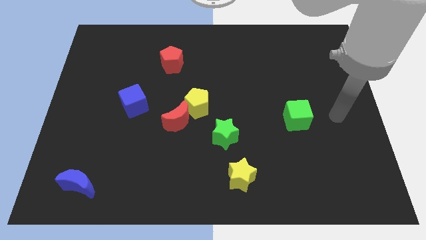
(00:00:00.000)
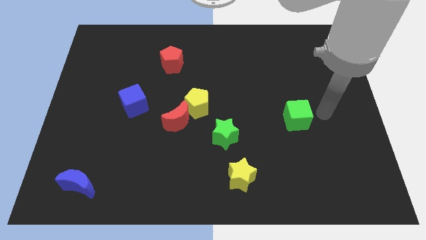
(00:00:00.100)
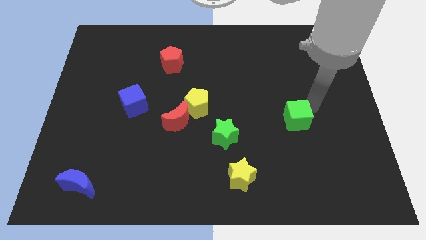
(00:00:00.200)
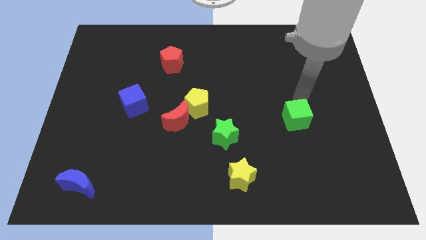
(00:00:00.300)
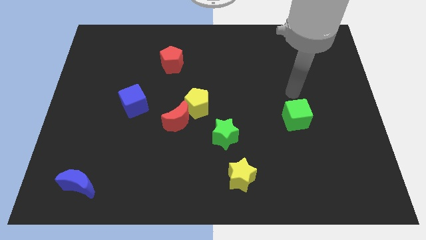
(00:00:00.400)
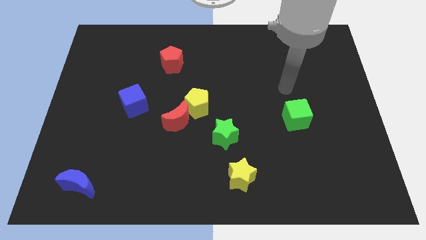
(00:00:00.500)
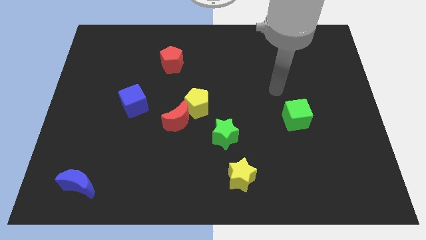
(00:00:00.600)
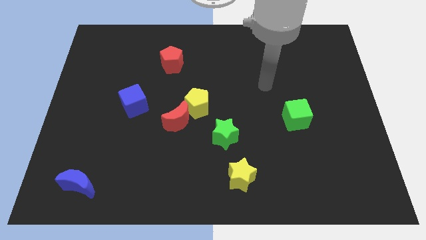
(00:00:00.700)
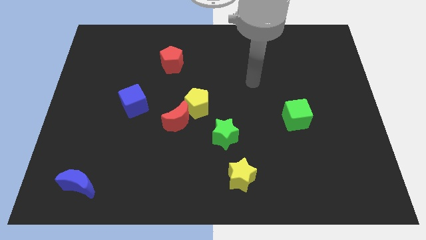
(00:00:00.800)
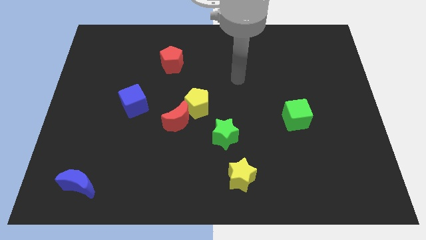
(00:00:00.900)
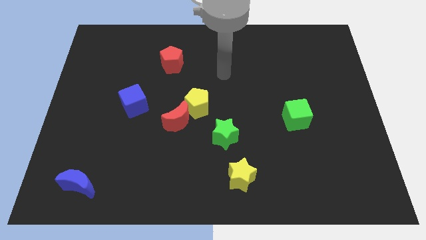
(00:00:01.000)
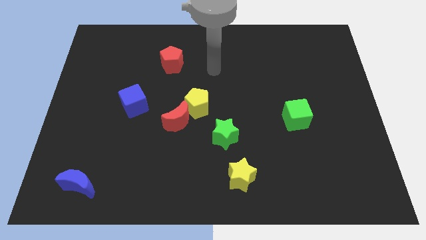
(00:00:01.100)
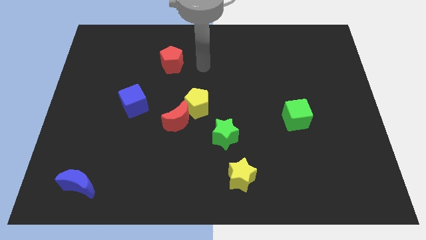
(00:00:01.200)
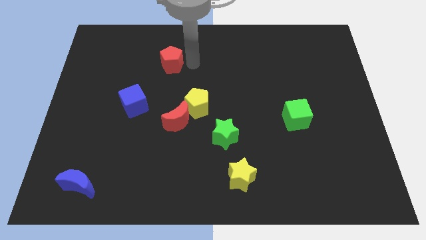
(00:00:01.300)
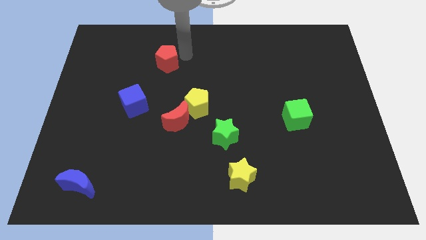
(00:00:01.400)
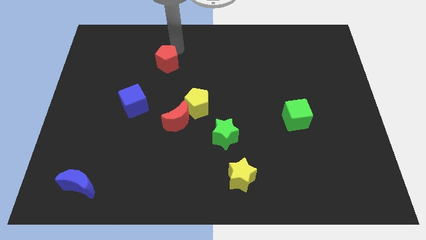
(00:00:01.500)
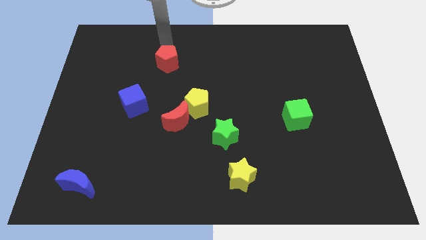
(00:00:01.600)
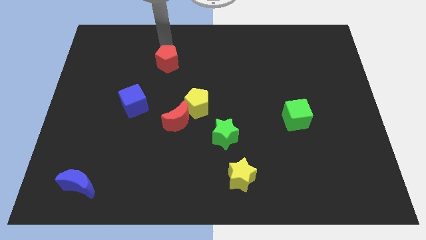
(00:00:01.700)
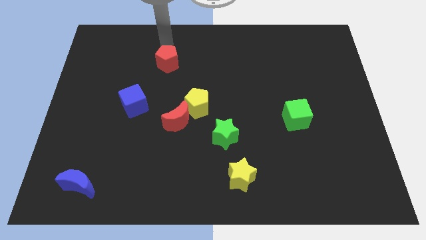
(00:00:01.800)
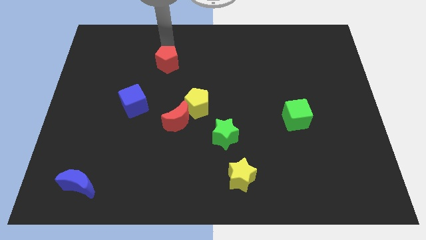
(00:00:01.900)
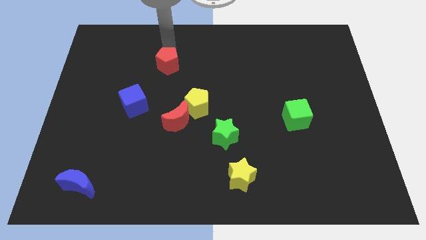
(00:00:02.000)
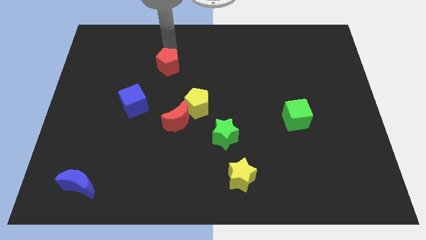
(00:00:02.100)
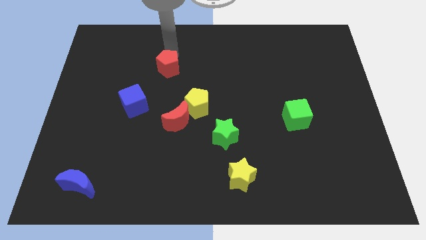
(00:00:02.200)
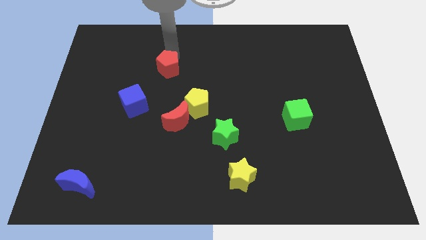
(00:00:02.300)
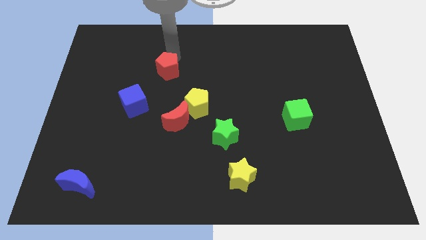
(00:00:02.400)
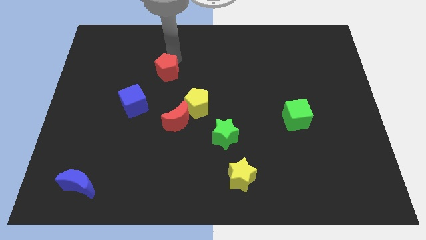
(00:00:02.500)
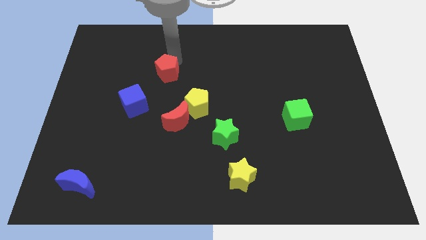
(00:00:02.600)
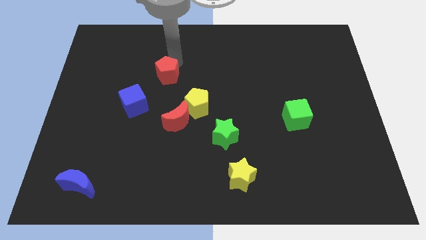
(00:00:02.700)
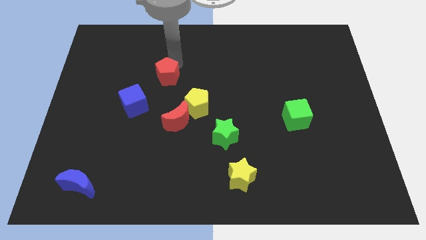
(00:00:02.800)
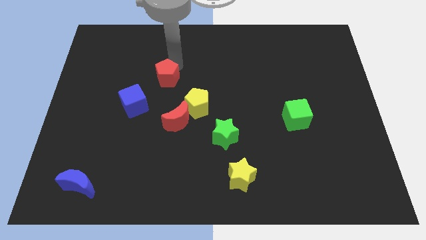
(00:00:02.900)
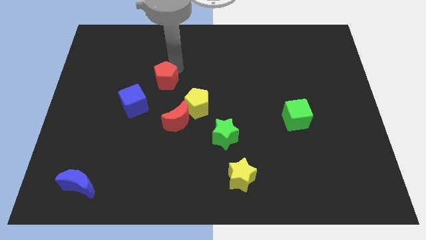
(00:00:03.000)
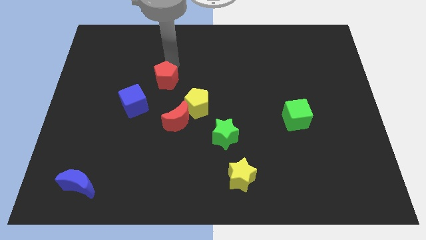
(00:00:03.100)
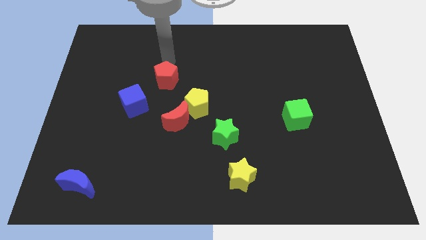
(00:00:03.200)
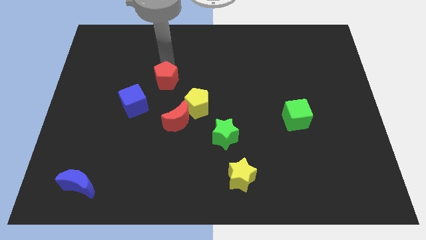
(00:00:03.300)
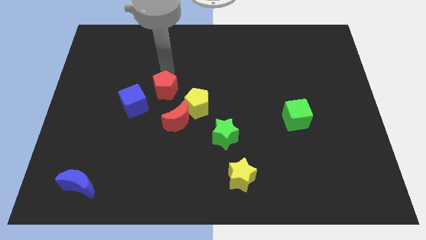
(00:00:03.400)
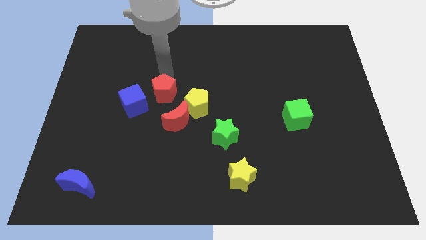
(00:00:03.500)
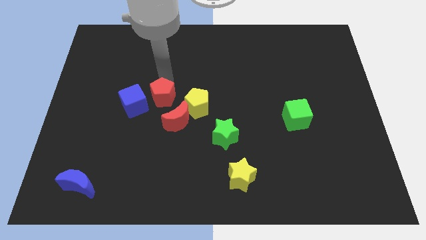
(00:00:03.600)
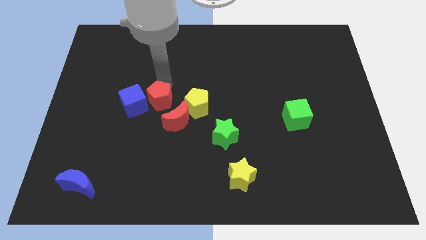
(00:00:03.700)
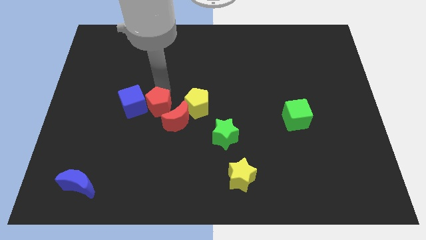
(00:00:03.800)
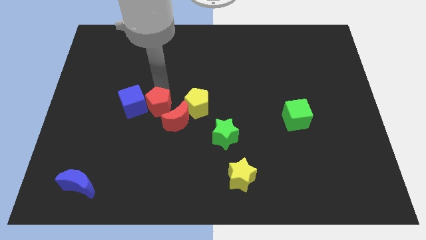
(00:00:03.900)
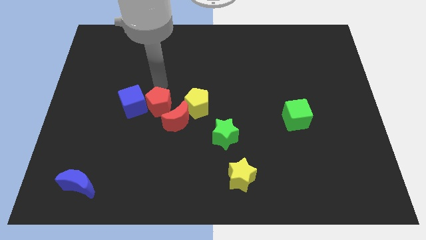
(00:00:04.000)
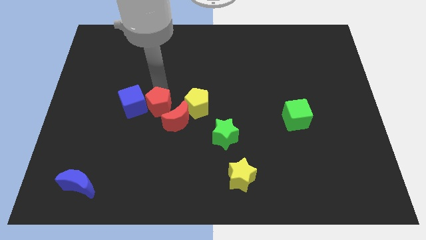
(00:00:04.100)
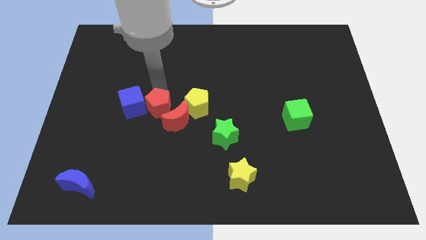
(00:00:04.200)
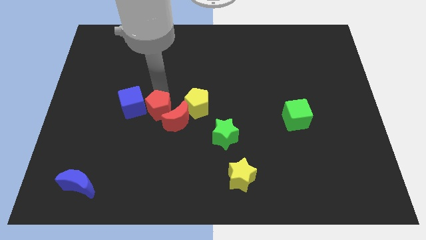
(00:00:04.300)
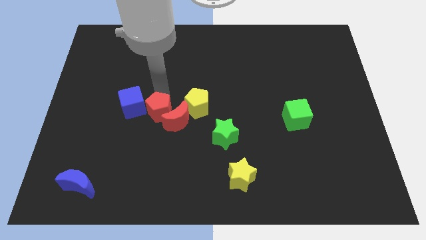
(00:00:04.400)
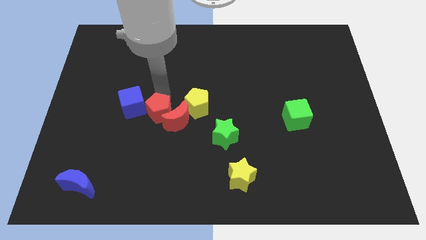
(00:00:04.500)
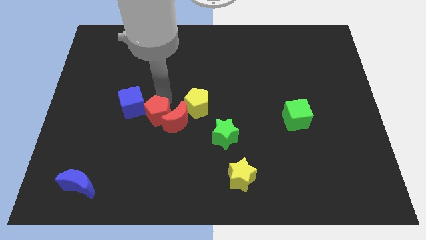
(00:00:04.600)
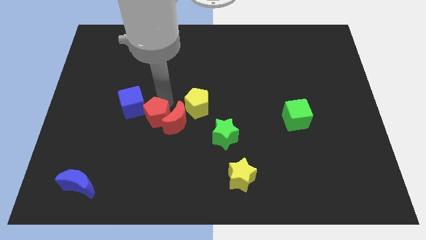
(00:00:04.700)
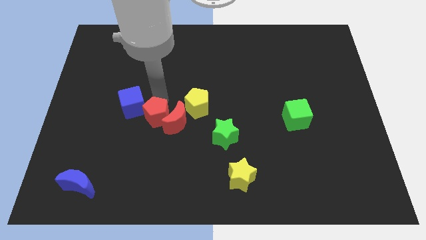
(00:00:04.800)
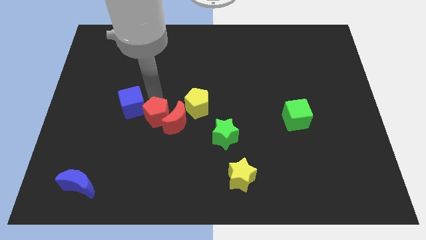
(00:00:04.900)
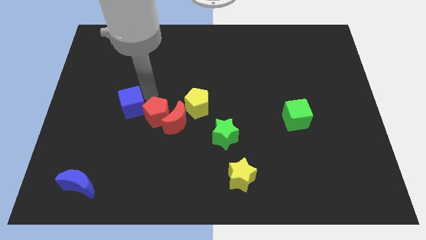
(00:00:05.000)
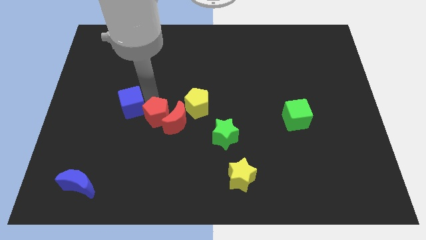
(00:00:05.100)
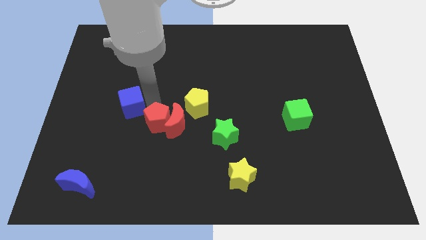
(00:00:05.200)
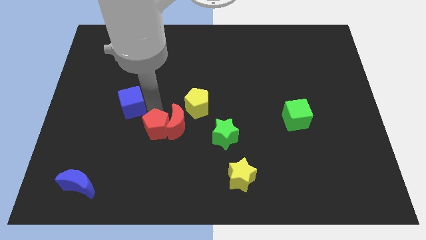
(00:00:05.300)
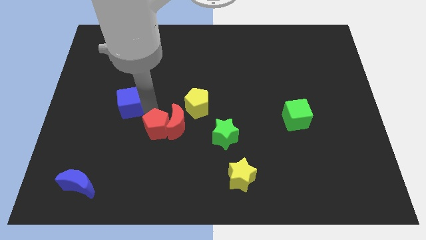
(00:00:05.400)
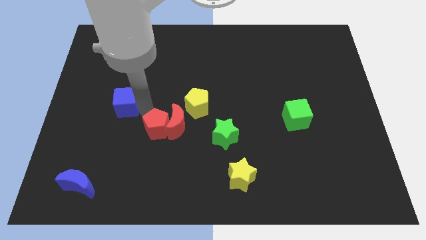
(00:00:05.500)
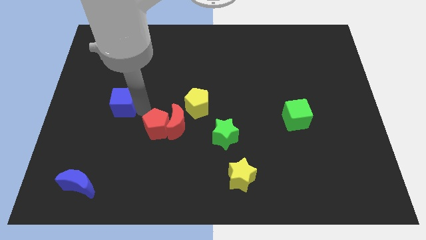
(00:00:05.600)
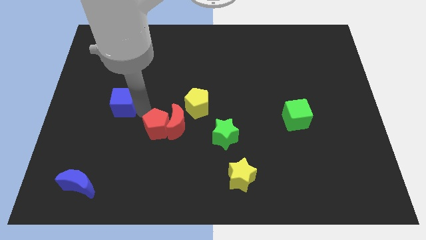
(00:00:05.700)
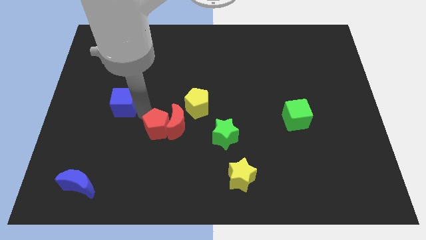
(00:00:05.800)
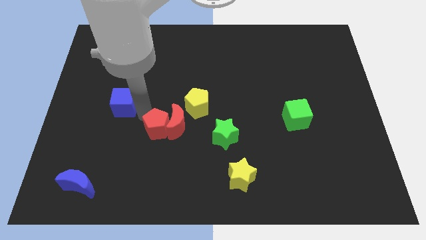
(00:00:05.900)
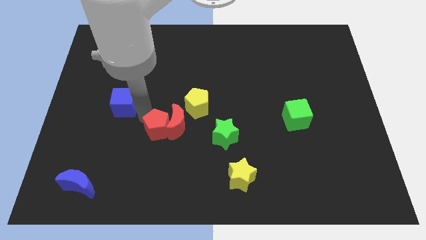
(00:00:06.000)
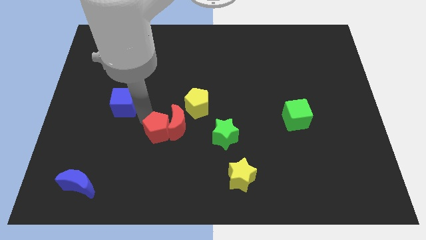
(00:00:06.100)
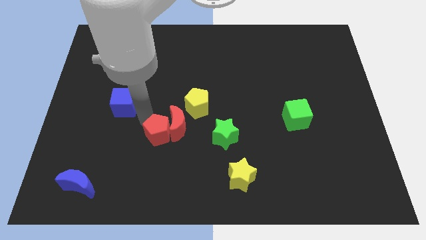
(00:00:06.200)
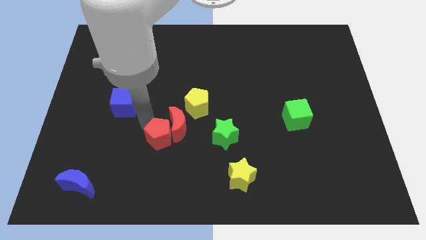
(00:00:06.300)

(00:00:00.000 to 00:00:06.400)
move the red pentagon to the bottom of the red moon

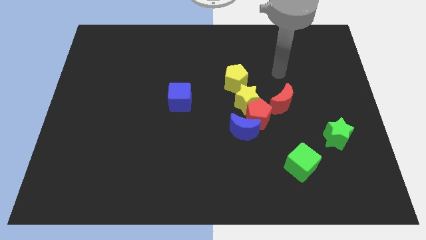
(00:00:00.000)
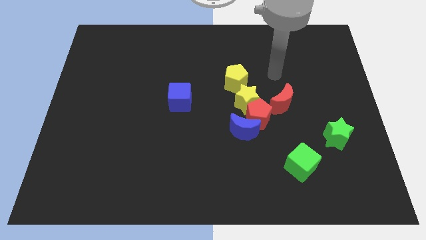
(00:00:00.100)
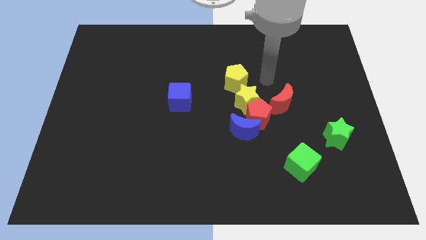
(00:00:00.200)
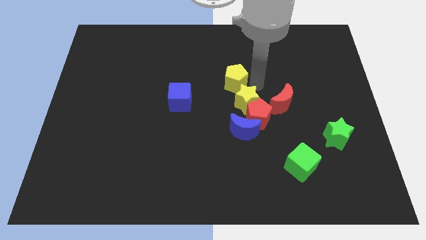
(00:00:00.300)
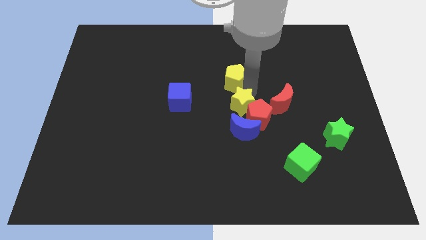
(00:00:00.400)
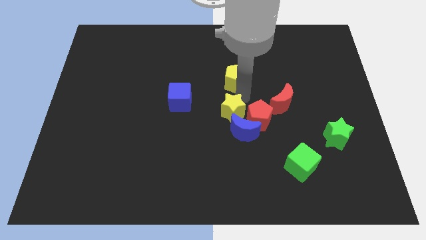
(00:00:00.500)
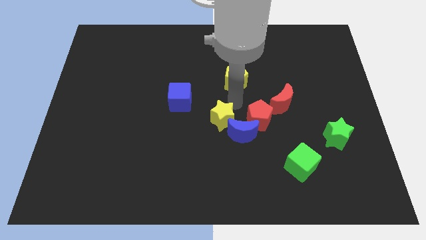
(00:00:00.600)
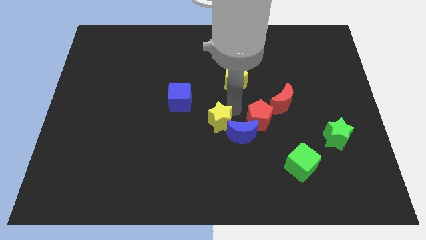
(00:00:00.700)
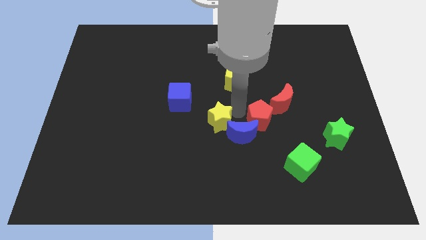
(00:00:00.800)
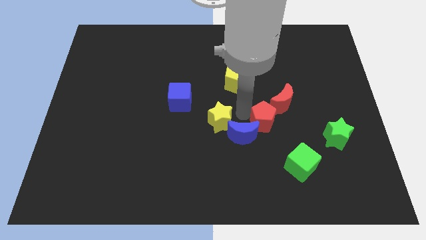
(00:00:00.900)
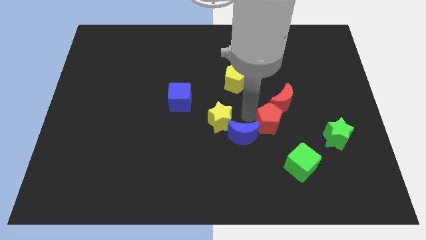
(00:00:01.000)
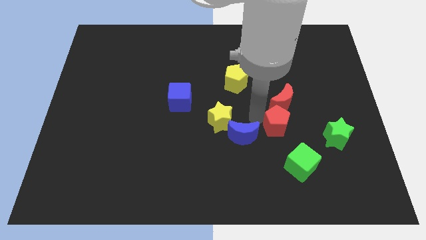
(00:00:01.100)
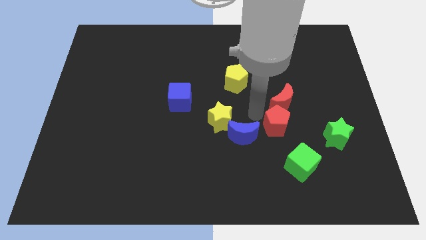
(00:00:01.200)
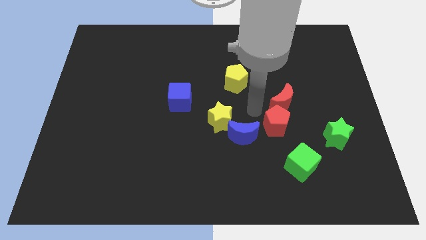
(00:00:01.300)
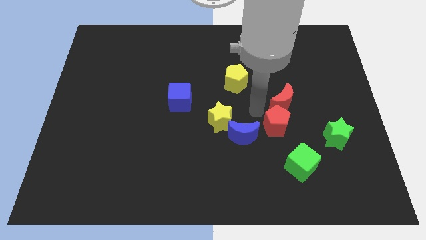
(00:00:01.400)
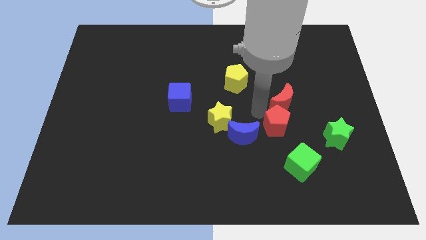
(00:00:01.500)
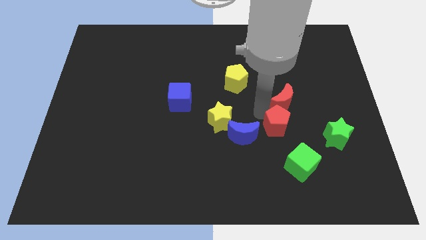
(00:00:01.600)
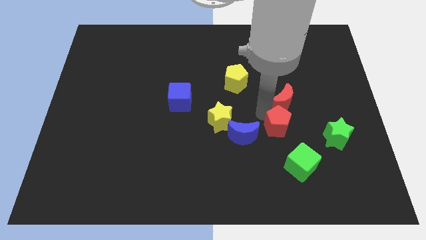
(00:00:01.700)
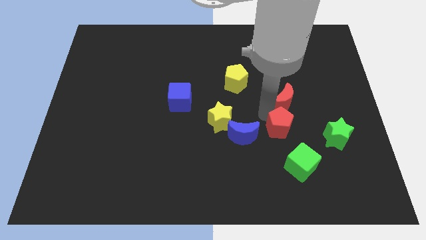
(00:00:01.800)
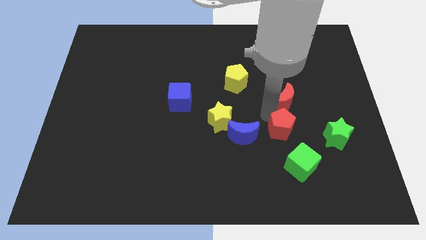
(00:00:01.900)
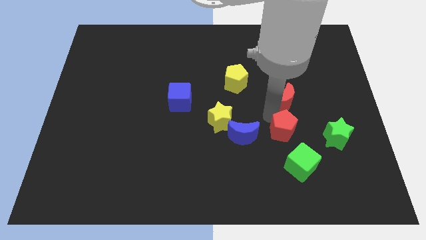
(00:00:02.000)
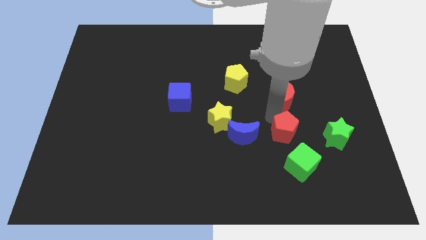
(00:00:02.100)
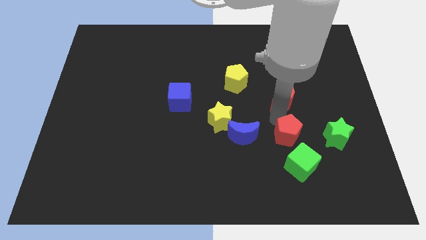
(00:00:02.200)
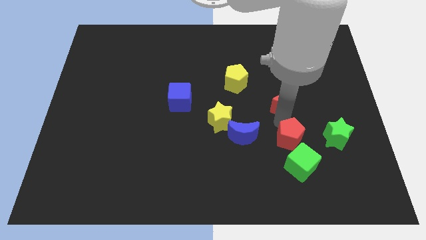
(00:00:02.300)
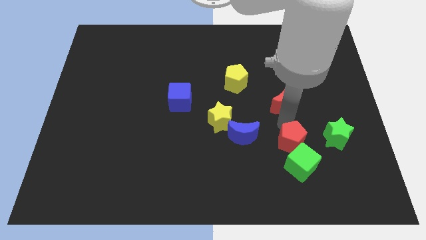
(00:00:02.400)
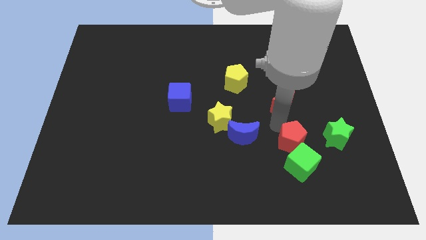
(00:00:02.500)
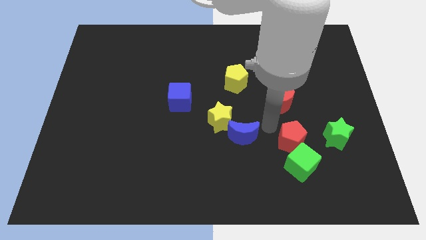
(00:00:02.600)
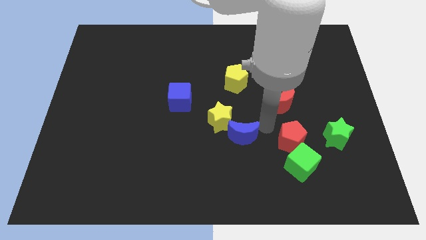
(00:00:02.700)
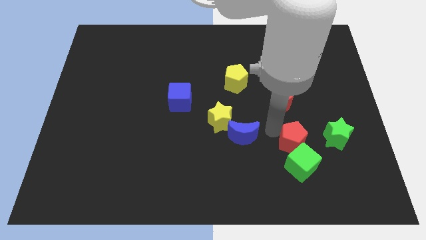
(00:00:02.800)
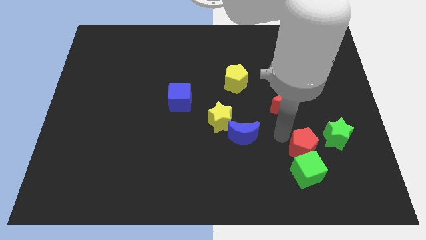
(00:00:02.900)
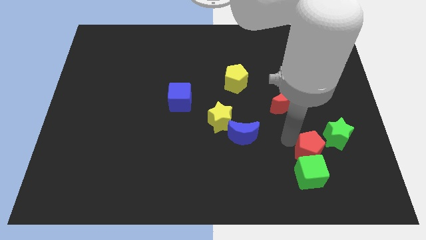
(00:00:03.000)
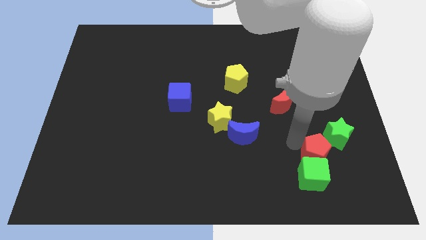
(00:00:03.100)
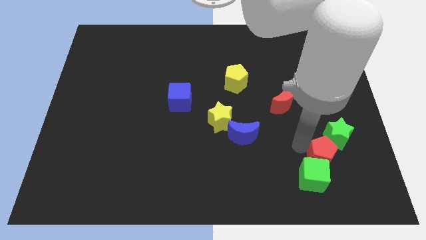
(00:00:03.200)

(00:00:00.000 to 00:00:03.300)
move the red pentagon below the green star
